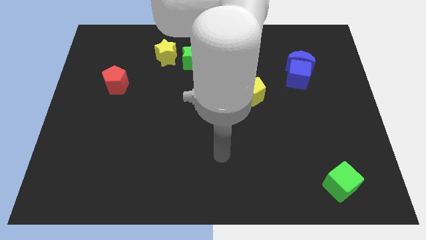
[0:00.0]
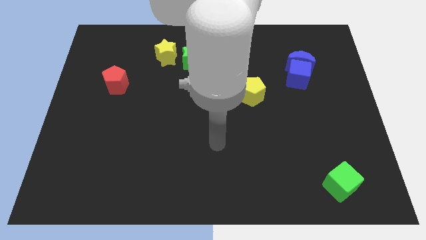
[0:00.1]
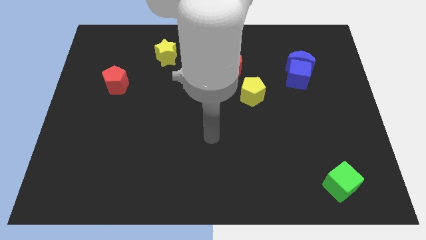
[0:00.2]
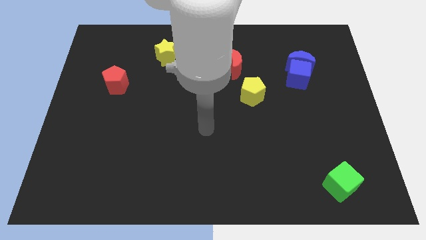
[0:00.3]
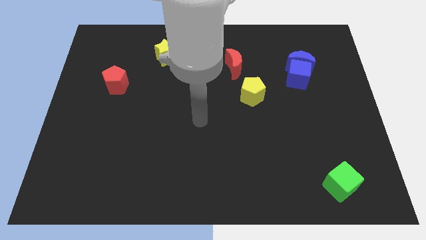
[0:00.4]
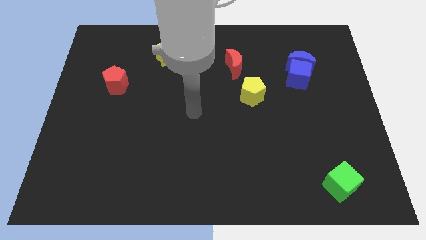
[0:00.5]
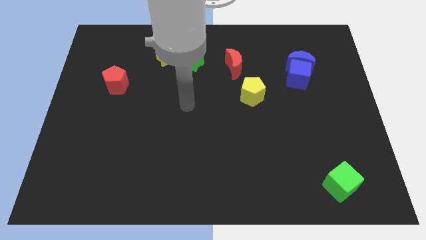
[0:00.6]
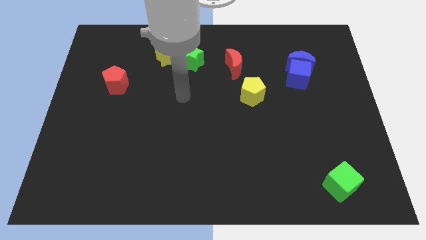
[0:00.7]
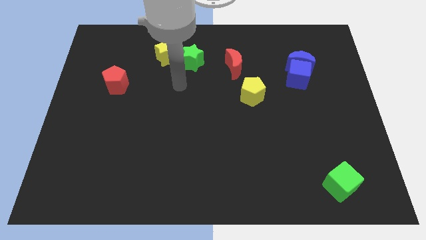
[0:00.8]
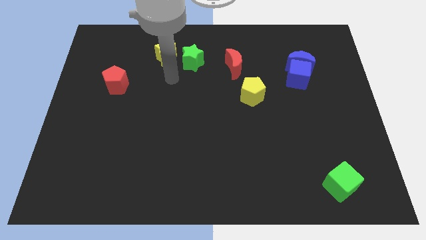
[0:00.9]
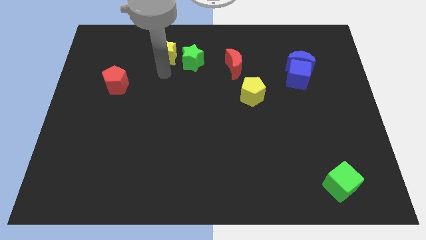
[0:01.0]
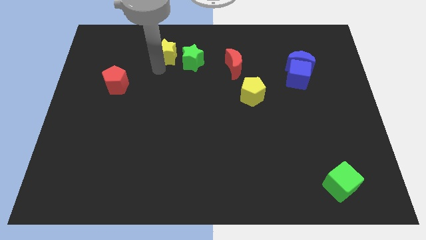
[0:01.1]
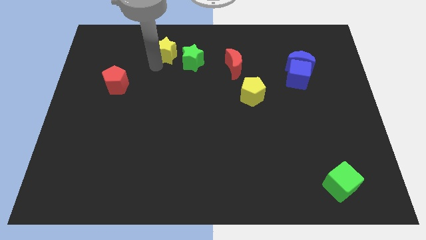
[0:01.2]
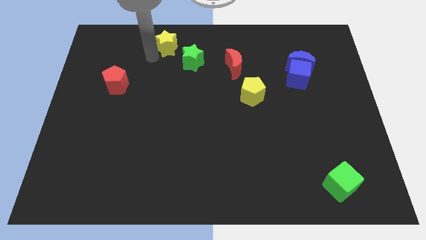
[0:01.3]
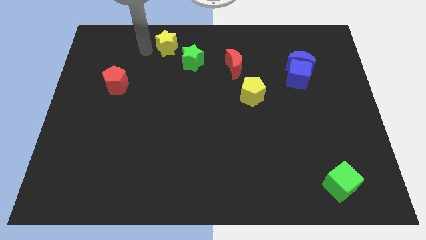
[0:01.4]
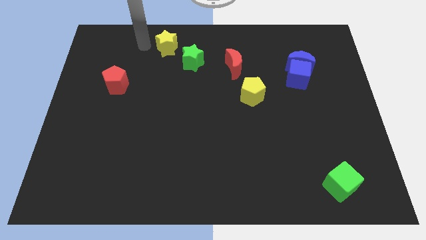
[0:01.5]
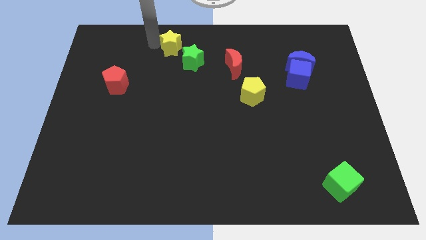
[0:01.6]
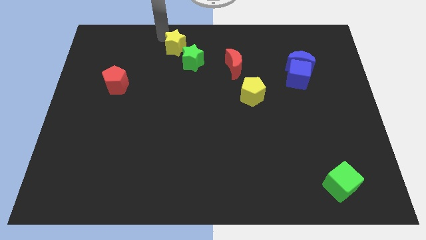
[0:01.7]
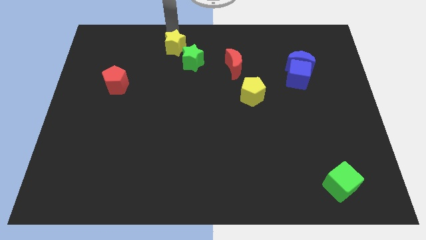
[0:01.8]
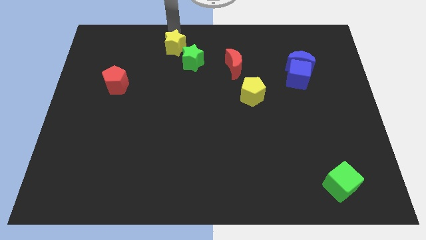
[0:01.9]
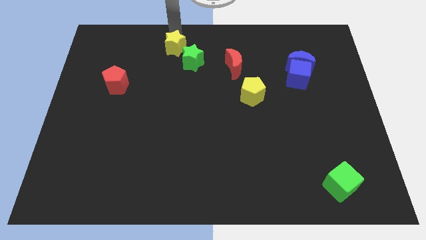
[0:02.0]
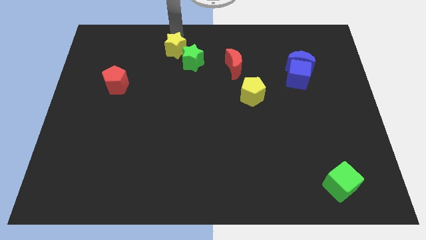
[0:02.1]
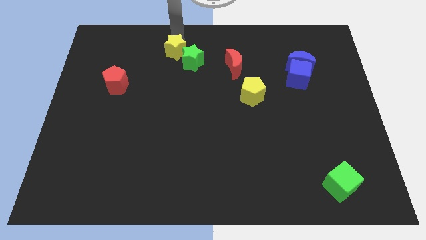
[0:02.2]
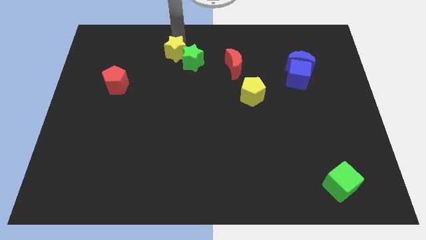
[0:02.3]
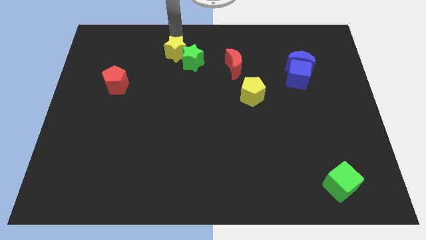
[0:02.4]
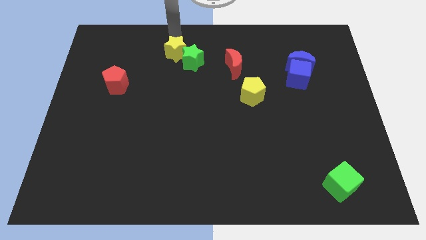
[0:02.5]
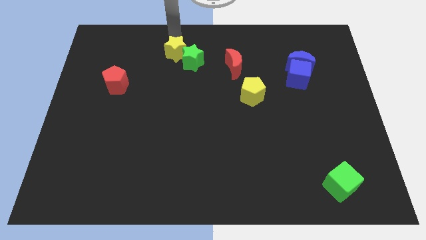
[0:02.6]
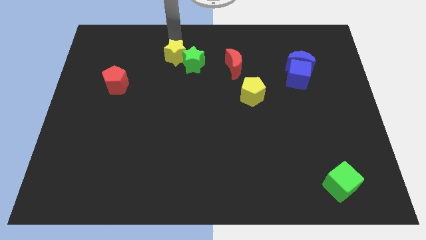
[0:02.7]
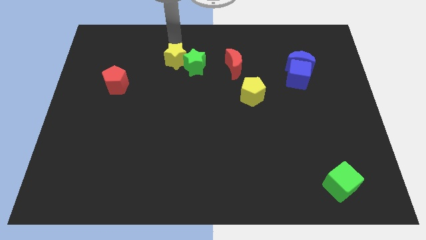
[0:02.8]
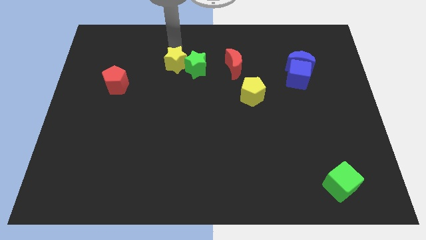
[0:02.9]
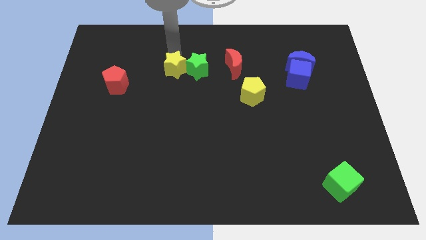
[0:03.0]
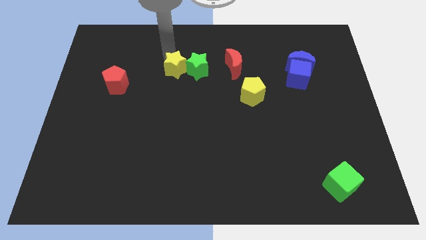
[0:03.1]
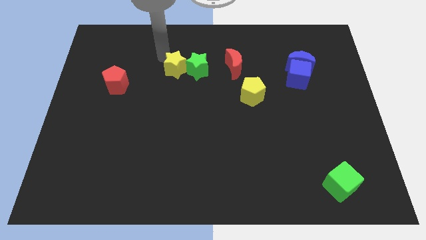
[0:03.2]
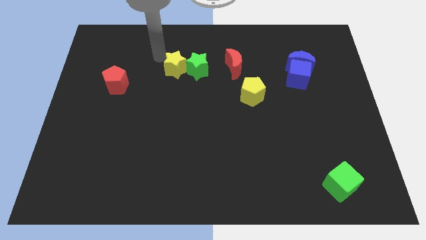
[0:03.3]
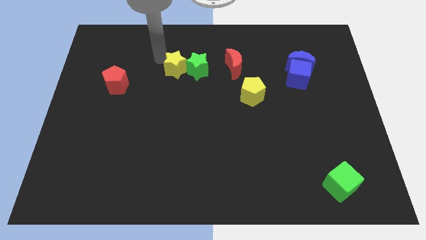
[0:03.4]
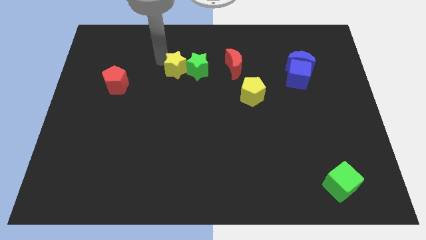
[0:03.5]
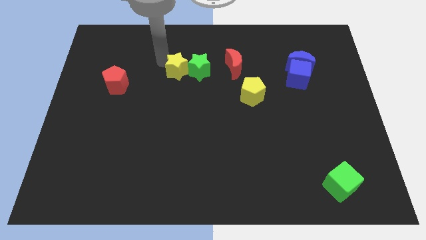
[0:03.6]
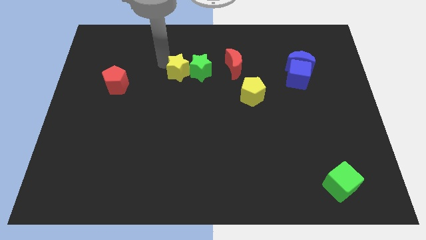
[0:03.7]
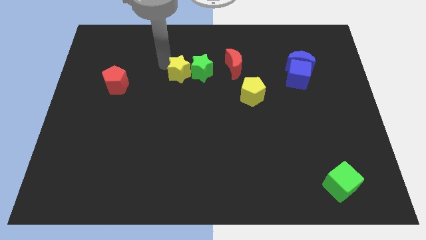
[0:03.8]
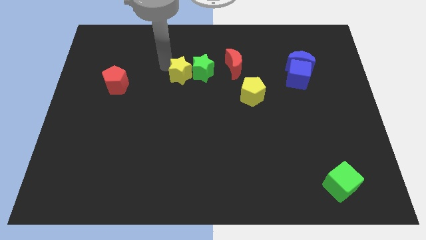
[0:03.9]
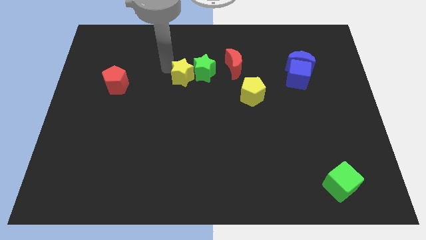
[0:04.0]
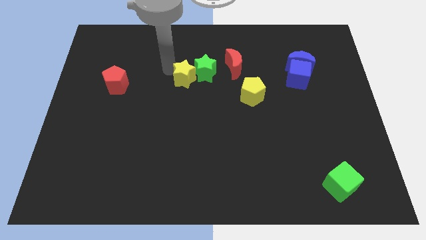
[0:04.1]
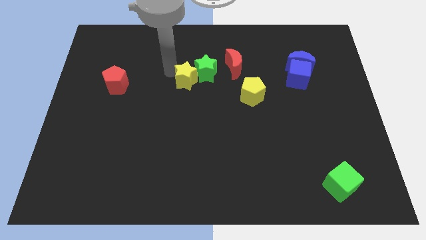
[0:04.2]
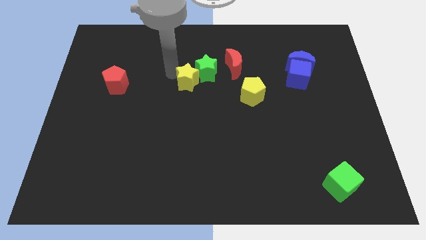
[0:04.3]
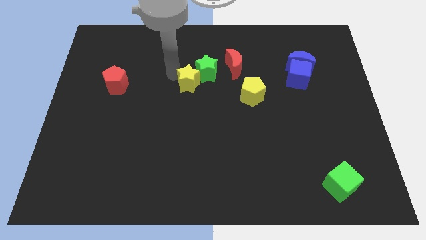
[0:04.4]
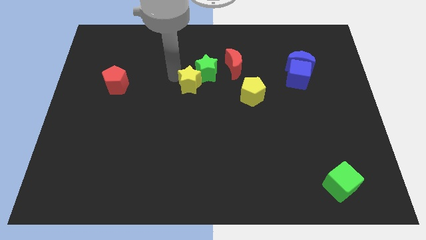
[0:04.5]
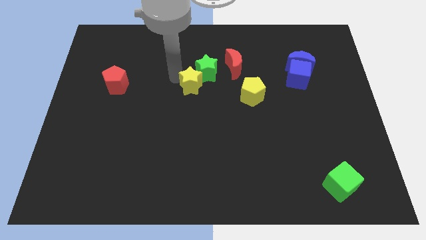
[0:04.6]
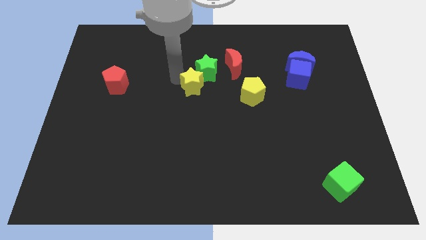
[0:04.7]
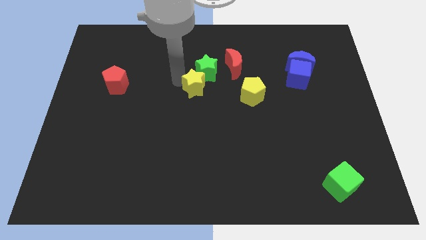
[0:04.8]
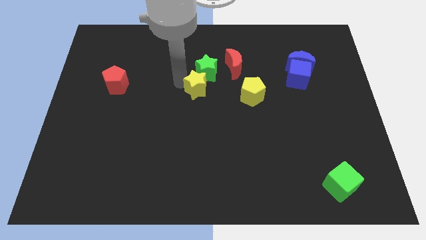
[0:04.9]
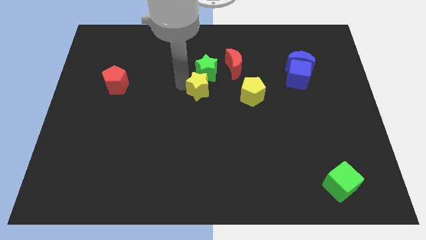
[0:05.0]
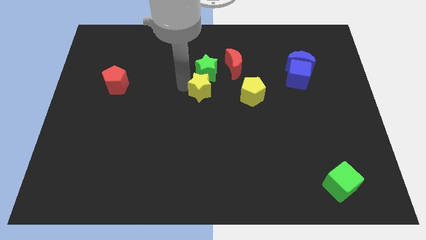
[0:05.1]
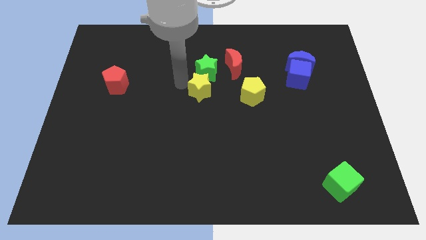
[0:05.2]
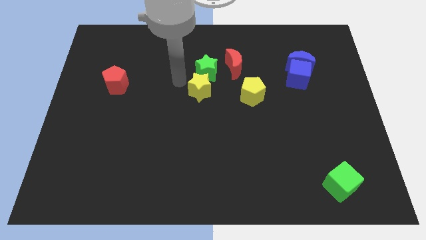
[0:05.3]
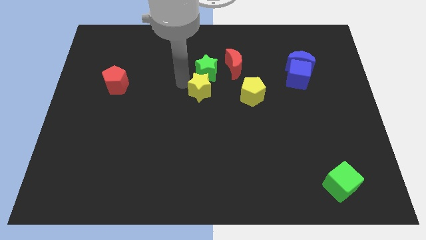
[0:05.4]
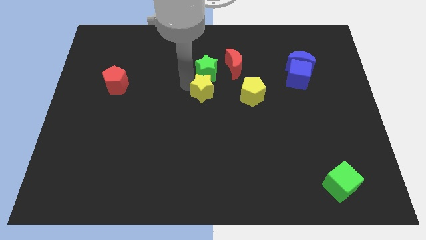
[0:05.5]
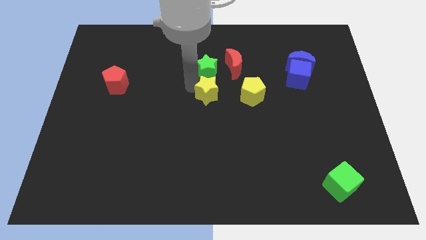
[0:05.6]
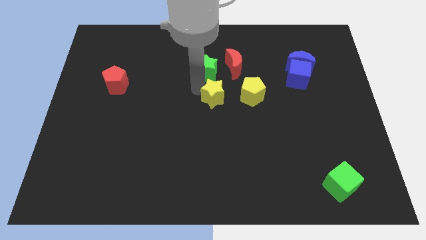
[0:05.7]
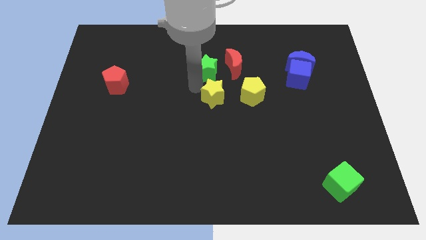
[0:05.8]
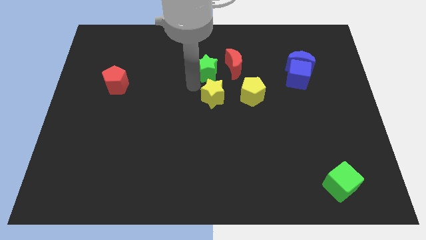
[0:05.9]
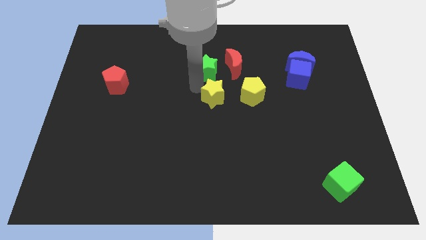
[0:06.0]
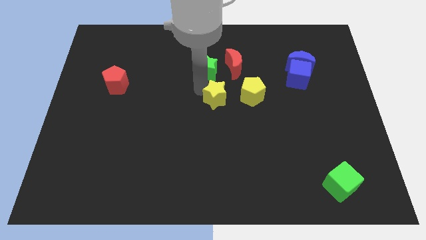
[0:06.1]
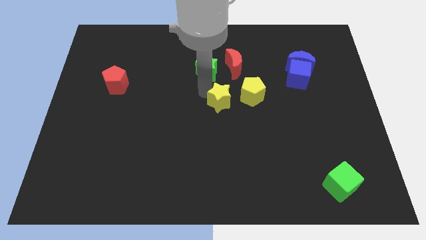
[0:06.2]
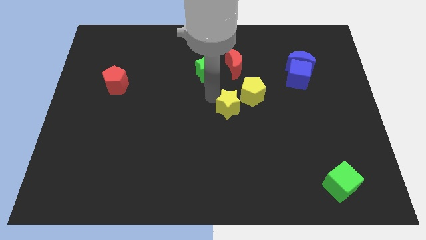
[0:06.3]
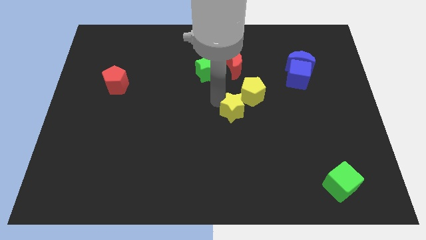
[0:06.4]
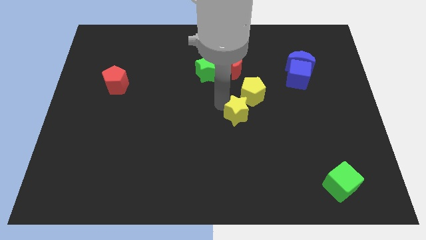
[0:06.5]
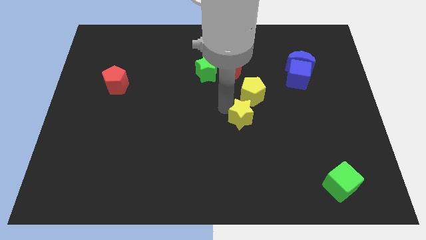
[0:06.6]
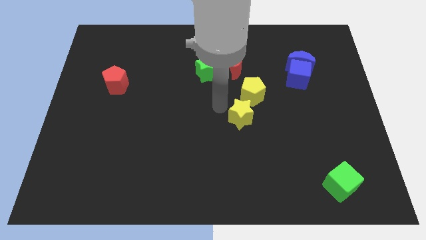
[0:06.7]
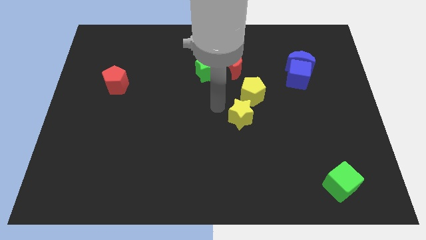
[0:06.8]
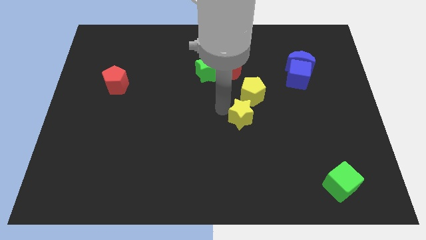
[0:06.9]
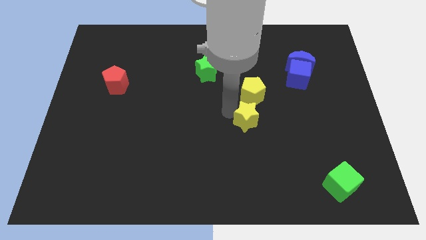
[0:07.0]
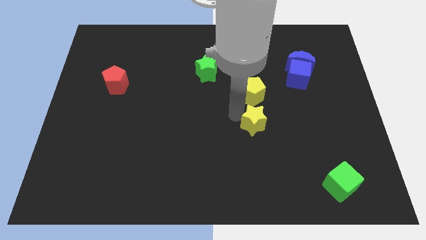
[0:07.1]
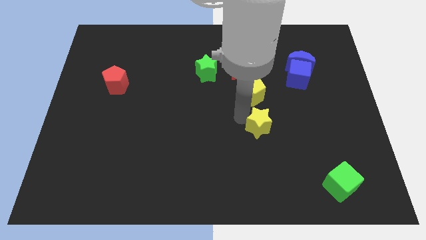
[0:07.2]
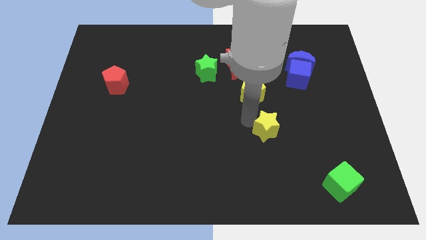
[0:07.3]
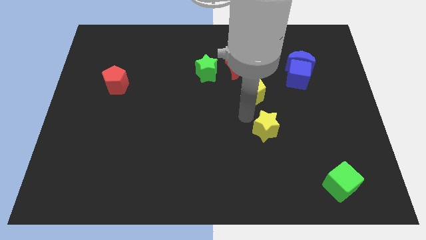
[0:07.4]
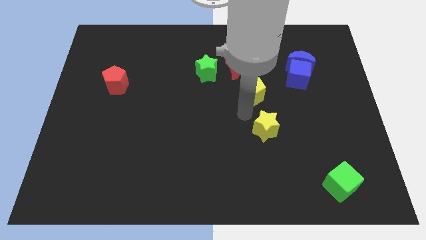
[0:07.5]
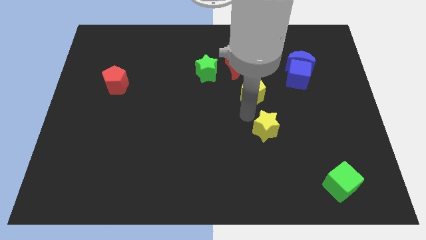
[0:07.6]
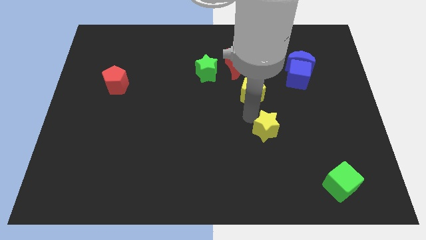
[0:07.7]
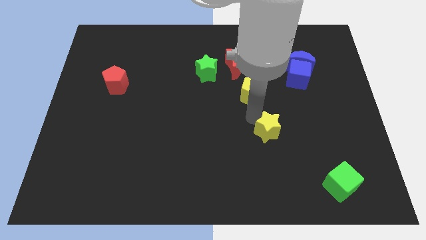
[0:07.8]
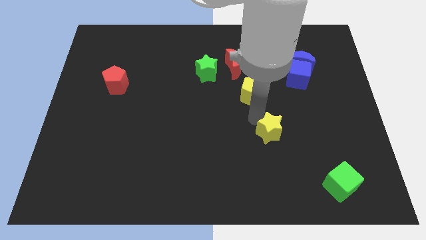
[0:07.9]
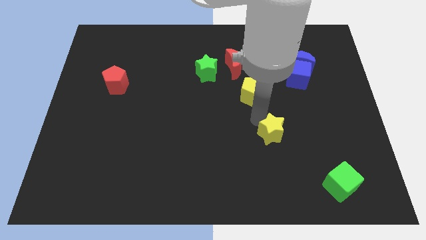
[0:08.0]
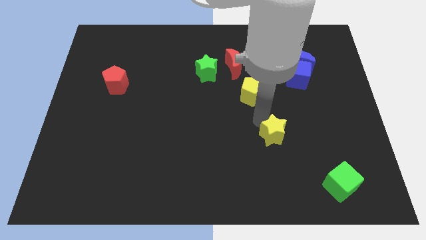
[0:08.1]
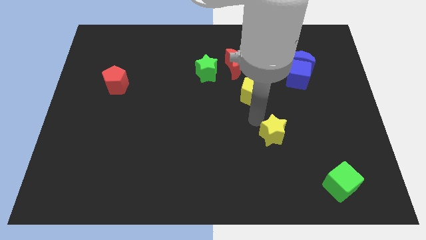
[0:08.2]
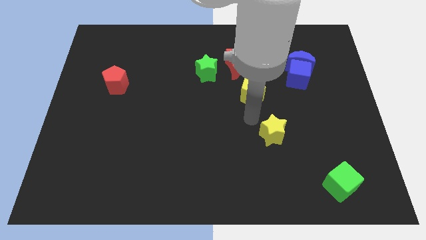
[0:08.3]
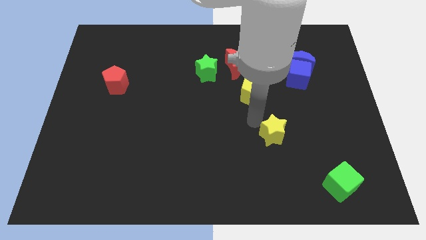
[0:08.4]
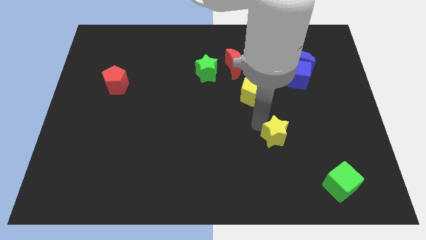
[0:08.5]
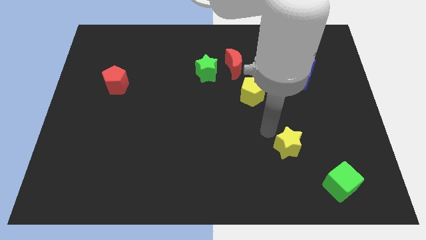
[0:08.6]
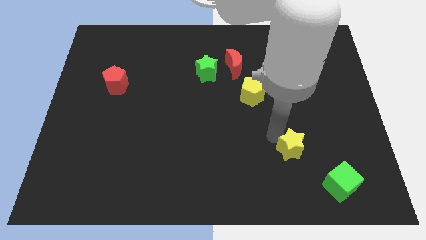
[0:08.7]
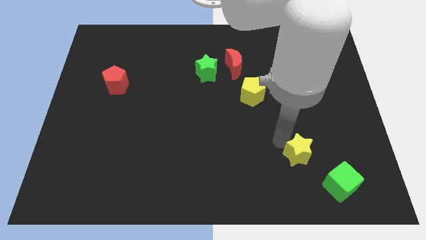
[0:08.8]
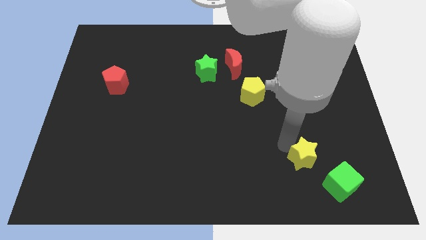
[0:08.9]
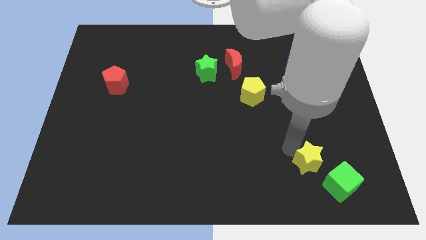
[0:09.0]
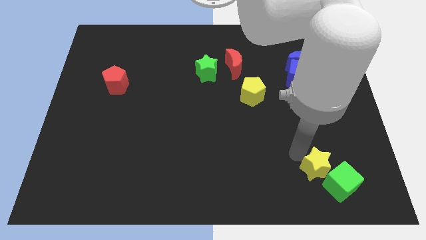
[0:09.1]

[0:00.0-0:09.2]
slide the yellow star next to the green cube
